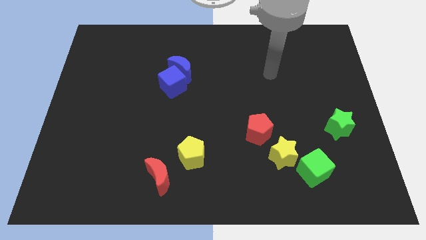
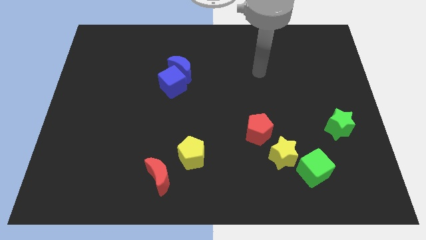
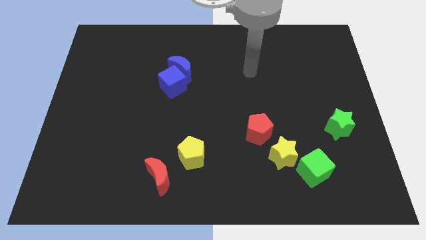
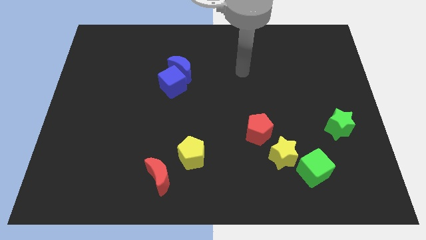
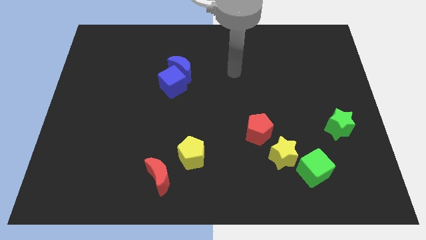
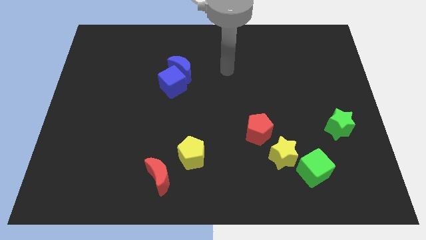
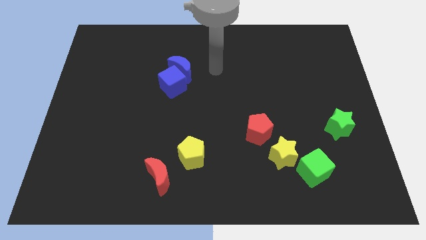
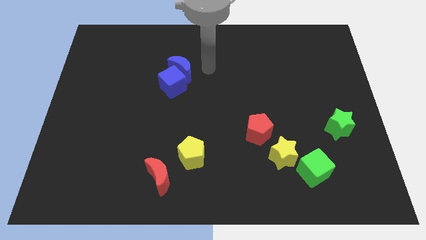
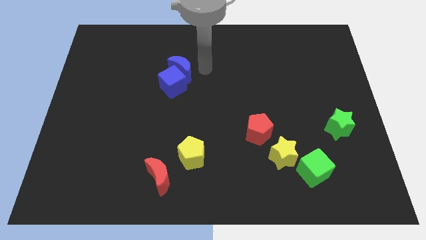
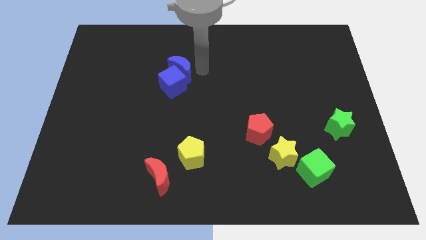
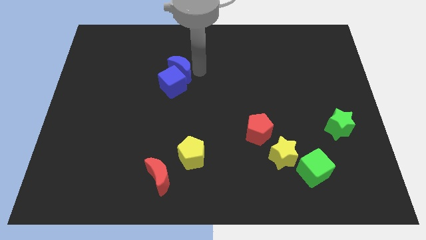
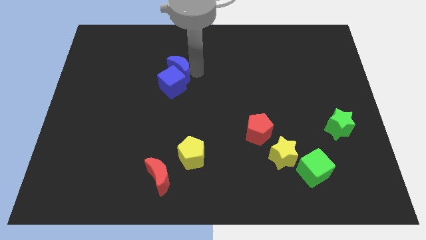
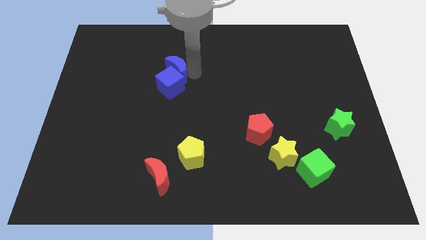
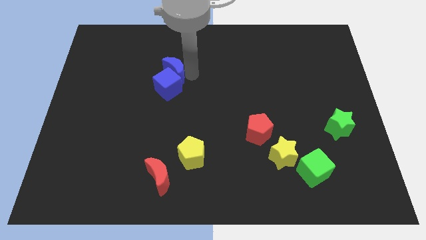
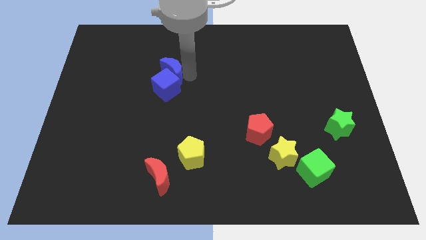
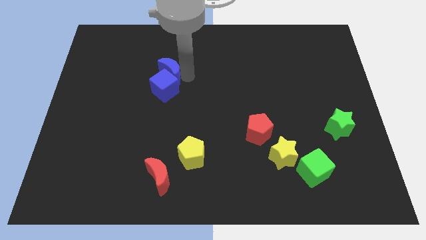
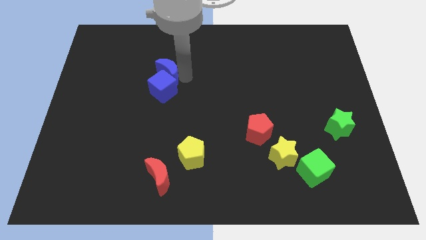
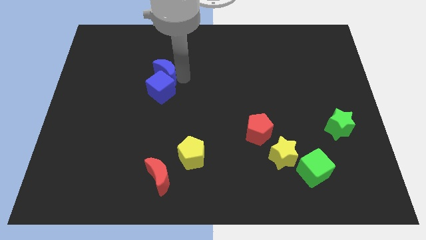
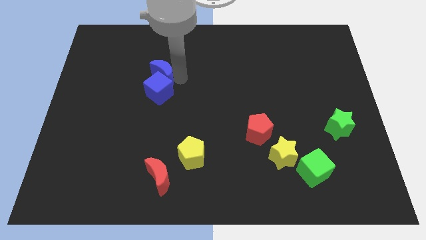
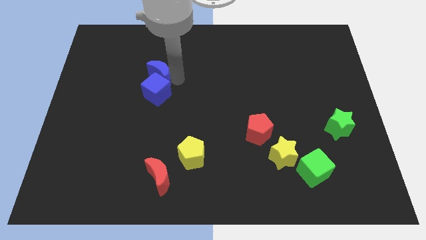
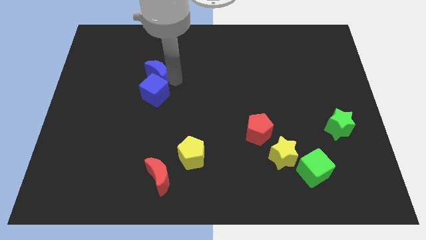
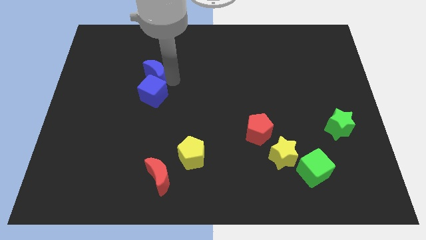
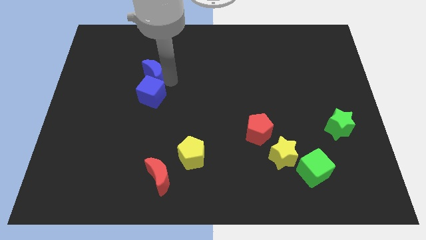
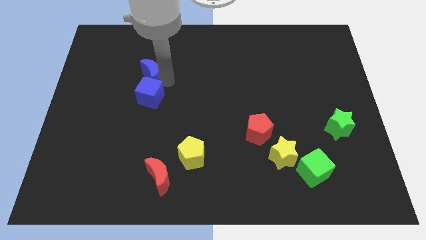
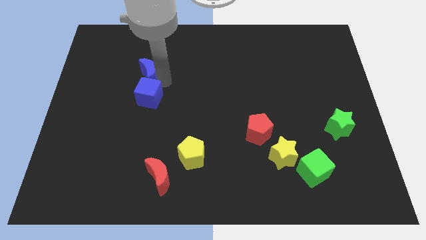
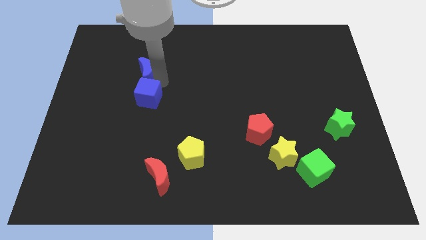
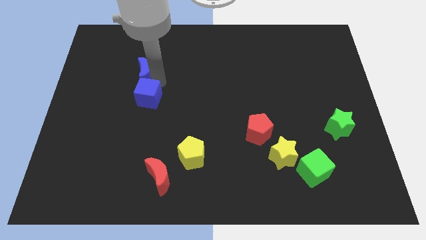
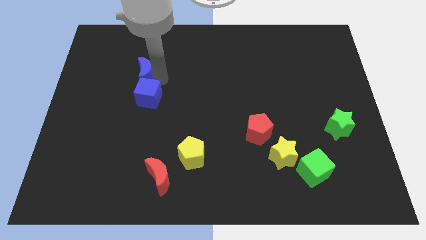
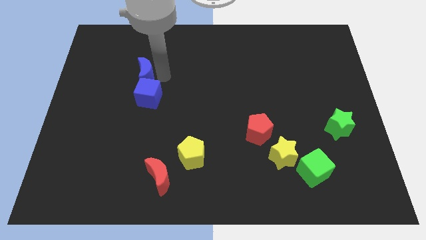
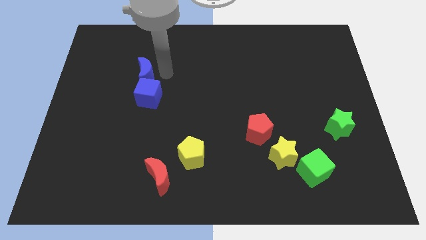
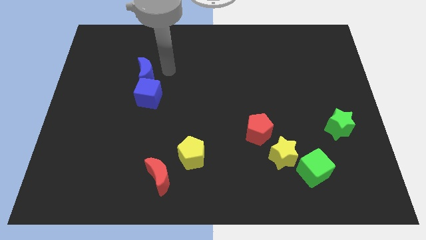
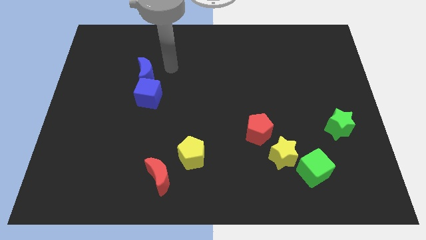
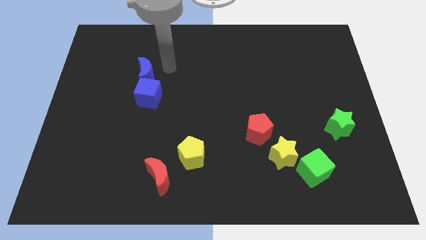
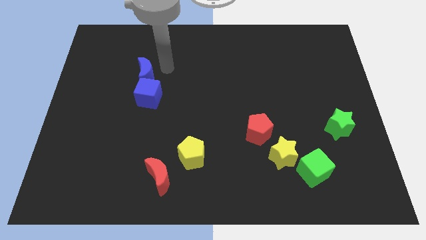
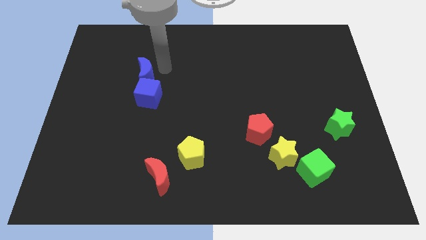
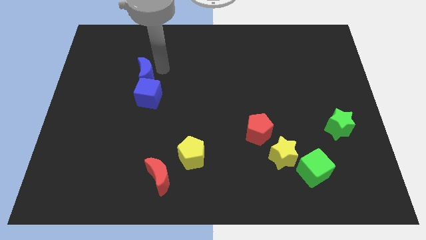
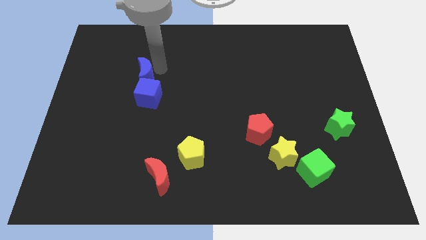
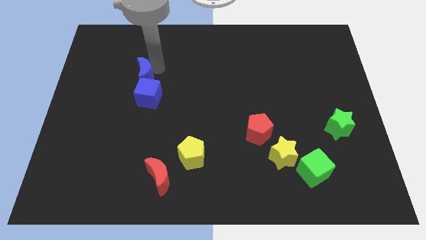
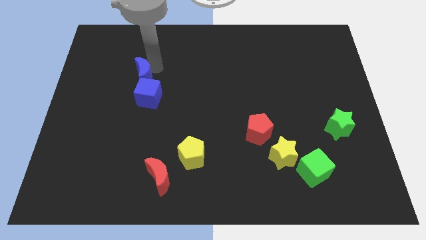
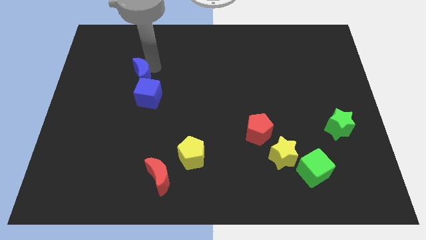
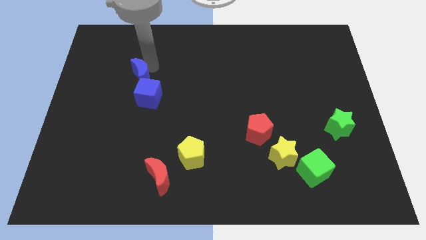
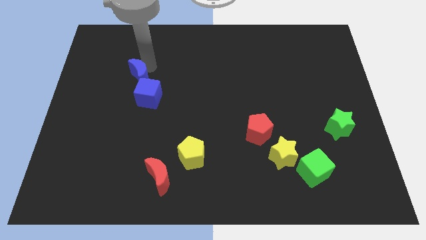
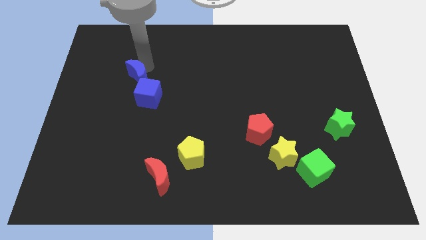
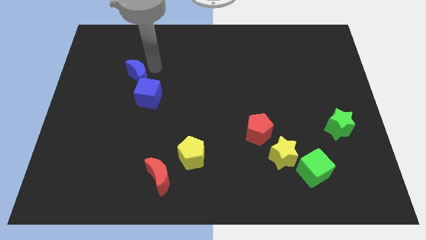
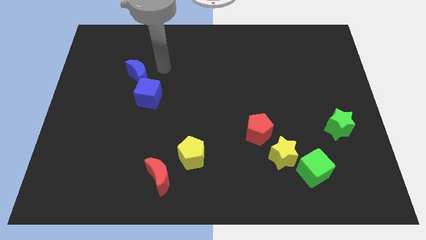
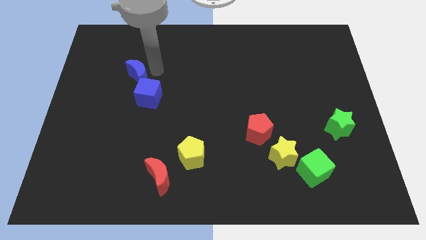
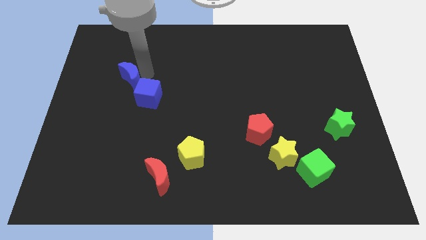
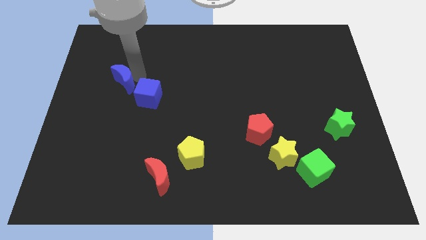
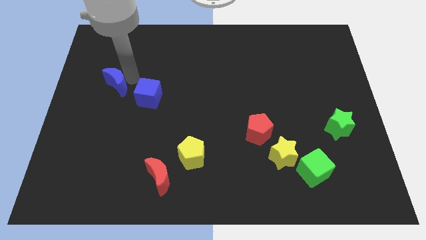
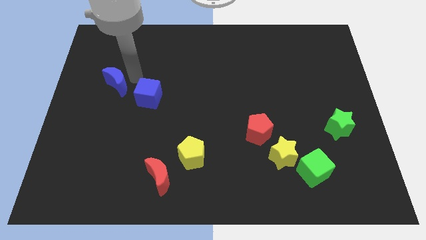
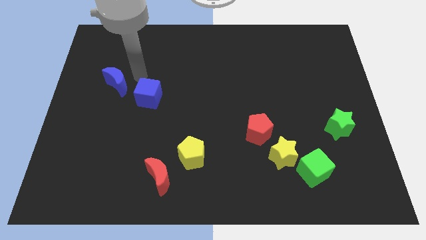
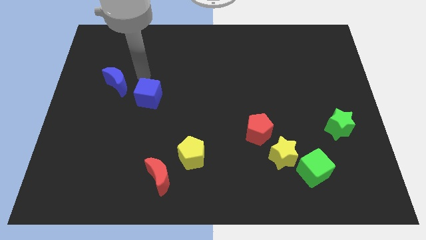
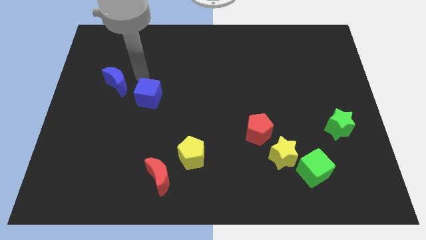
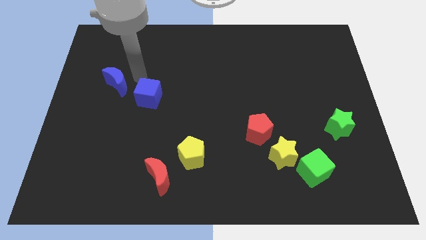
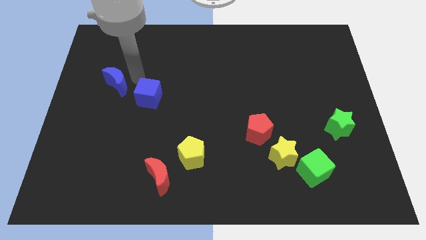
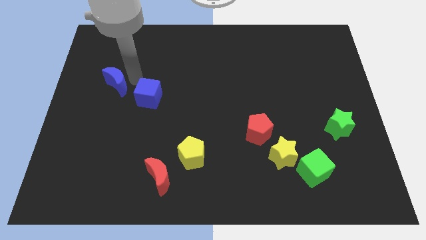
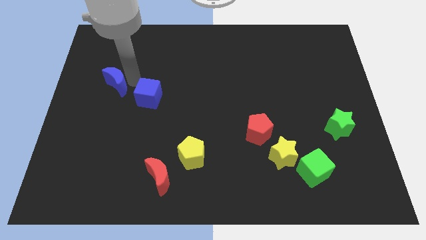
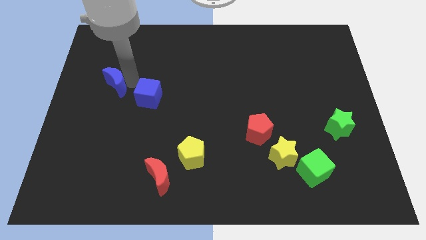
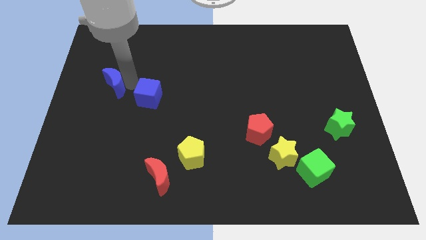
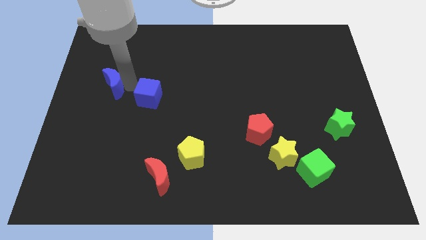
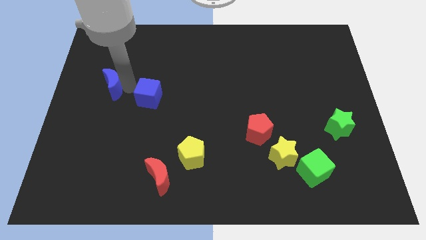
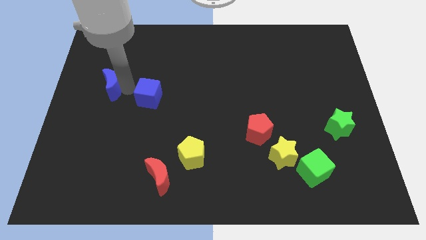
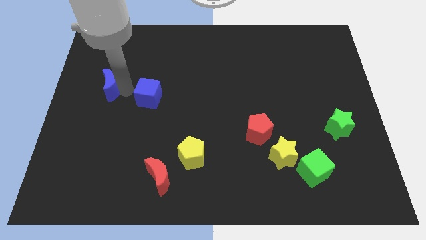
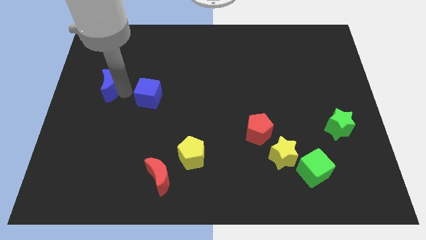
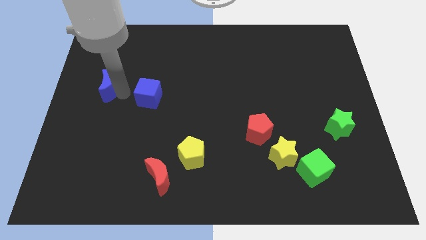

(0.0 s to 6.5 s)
push the blue moon to the left side of the board
